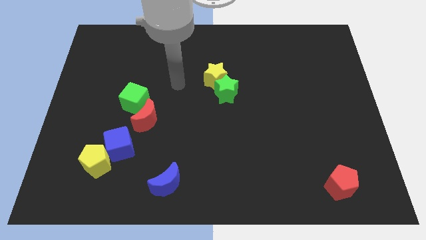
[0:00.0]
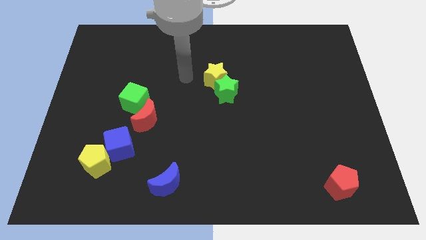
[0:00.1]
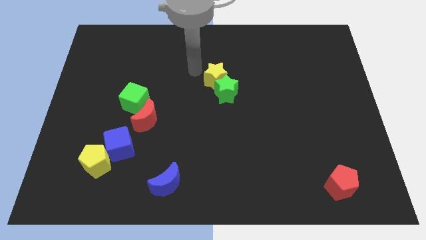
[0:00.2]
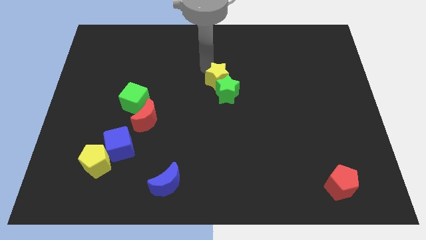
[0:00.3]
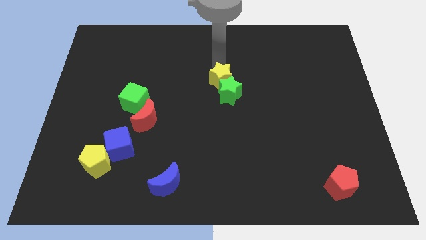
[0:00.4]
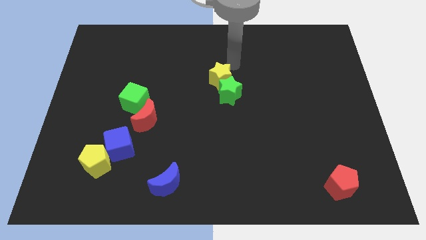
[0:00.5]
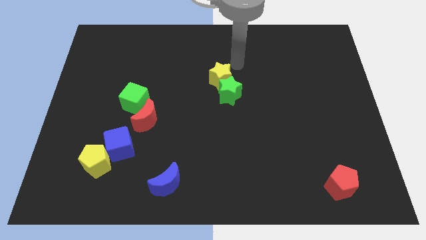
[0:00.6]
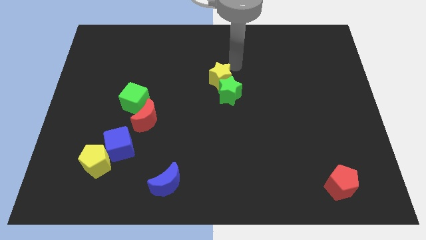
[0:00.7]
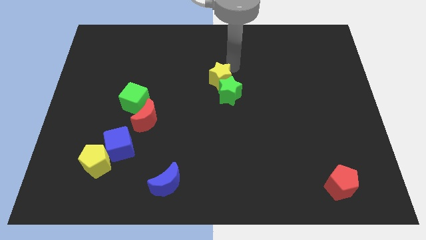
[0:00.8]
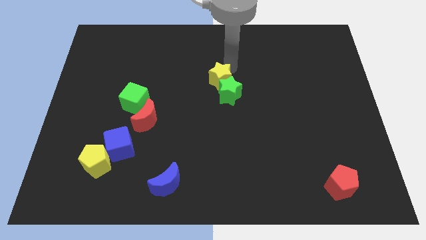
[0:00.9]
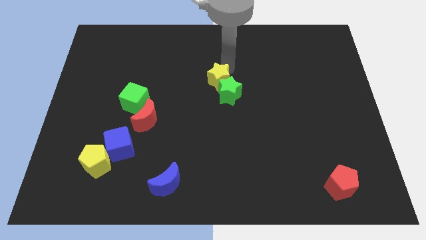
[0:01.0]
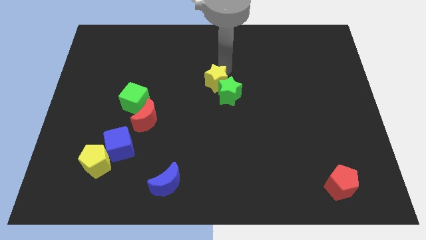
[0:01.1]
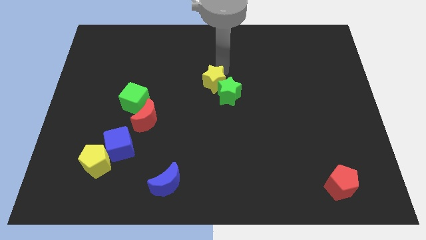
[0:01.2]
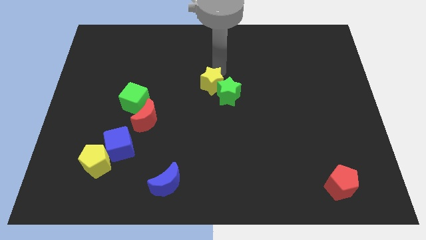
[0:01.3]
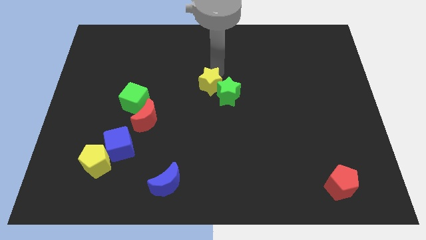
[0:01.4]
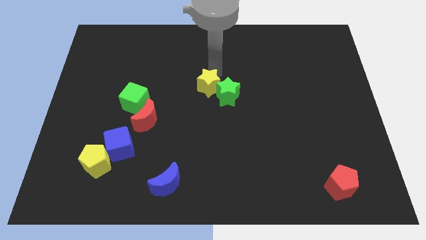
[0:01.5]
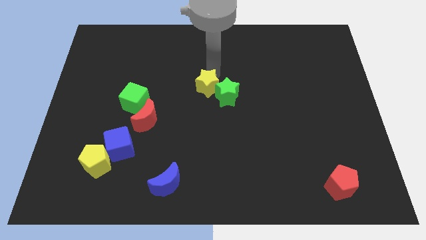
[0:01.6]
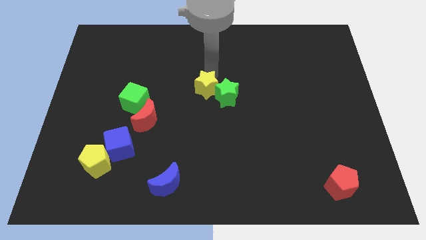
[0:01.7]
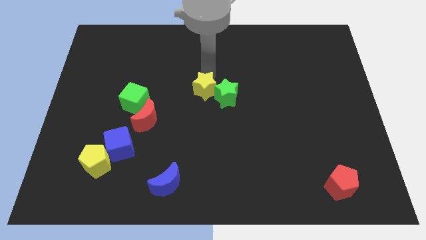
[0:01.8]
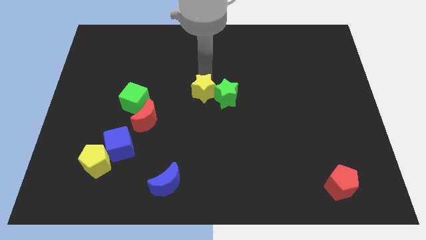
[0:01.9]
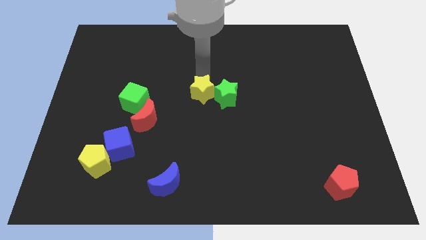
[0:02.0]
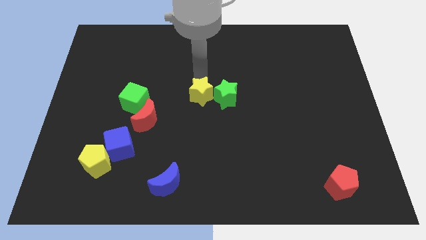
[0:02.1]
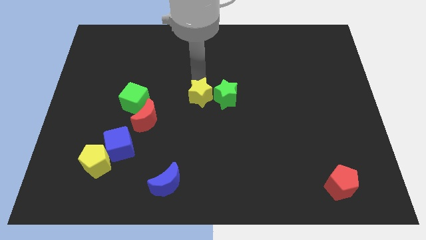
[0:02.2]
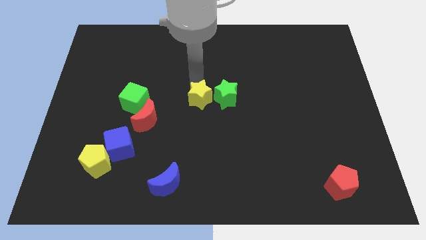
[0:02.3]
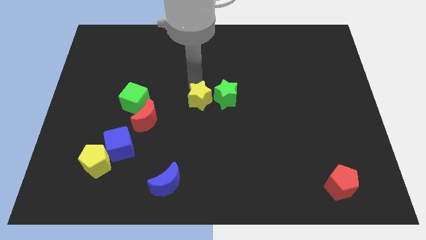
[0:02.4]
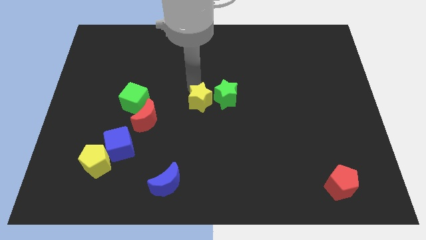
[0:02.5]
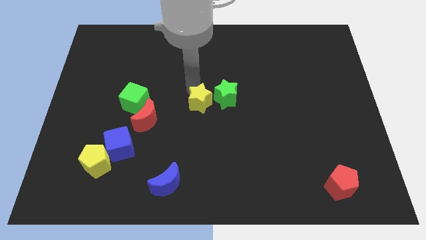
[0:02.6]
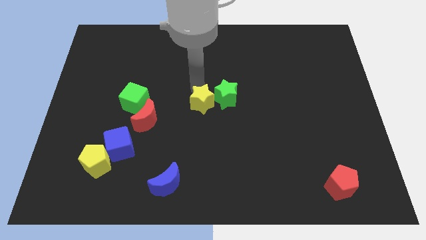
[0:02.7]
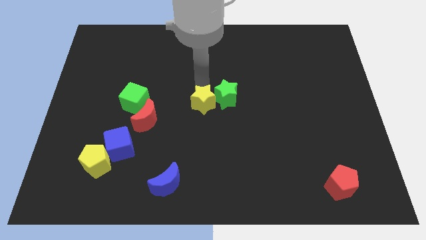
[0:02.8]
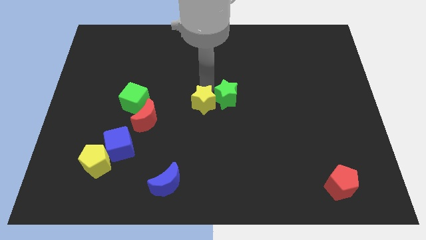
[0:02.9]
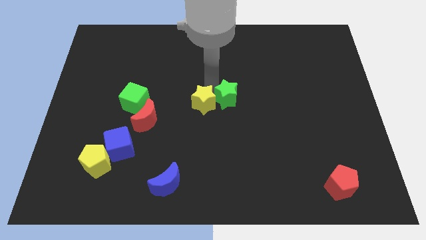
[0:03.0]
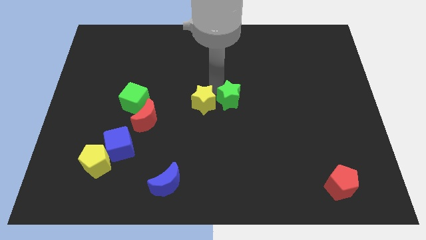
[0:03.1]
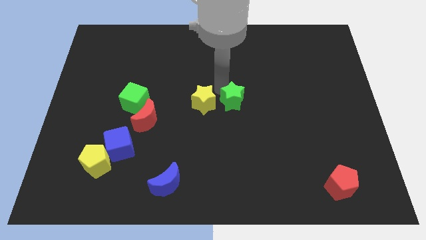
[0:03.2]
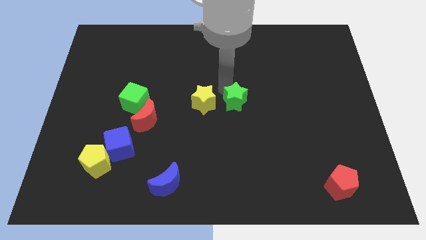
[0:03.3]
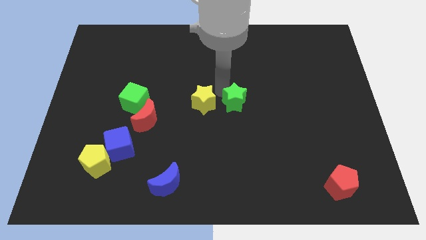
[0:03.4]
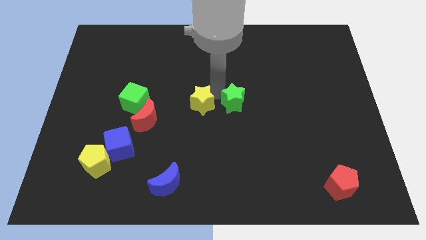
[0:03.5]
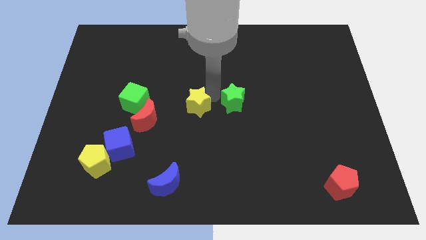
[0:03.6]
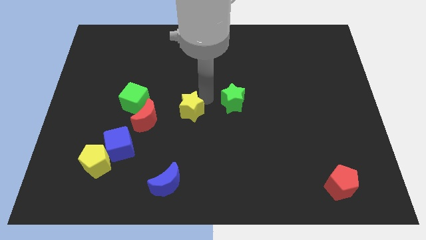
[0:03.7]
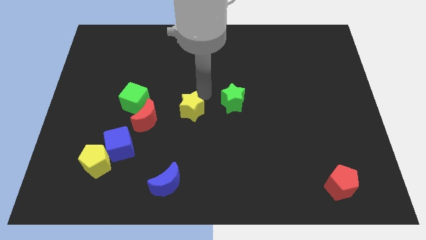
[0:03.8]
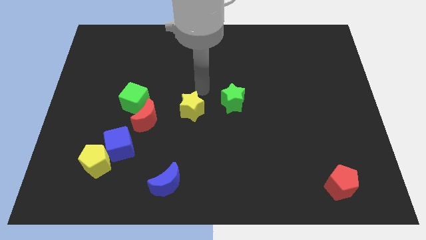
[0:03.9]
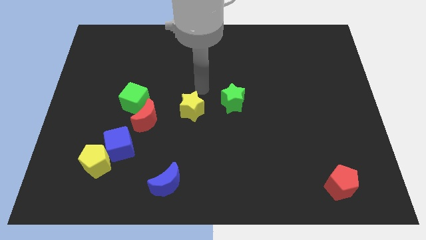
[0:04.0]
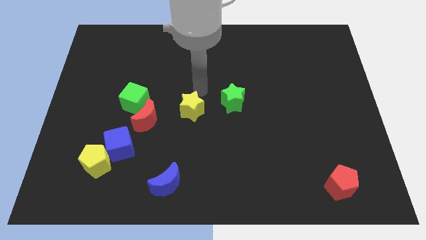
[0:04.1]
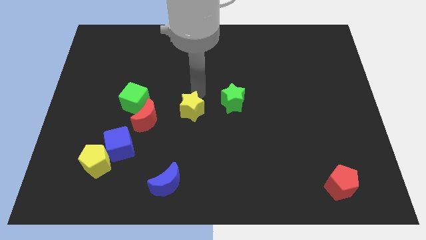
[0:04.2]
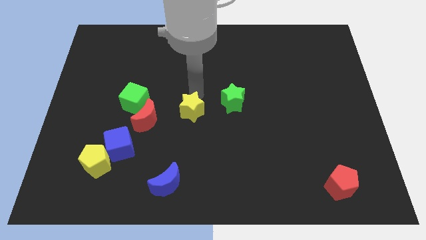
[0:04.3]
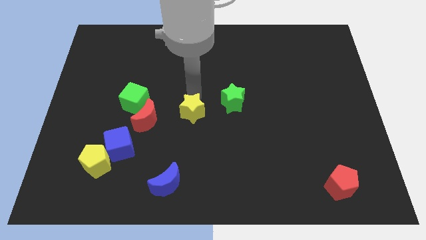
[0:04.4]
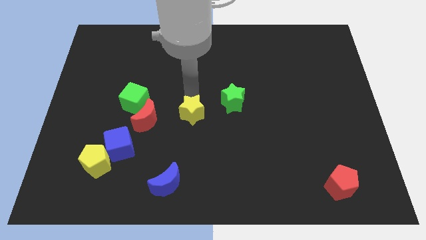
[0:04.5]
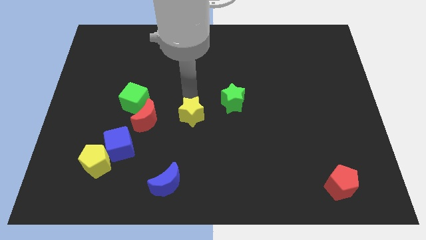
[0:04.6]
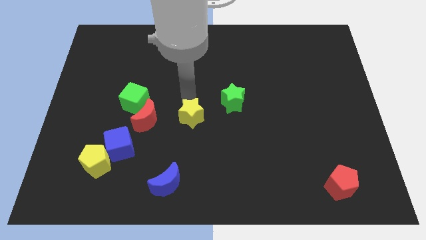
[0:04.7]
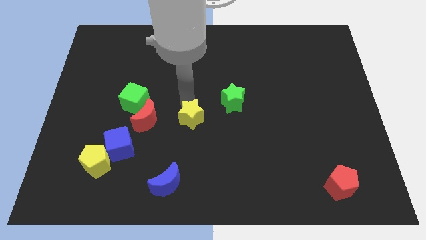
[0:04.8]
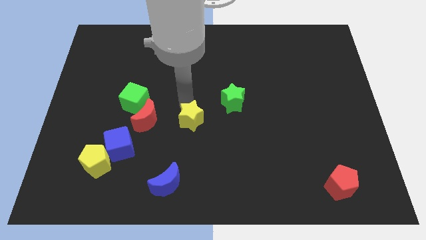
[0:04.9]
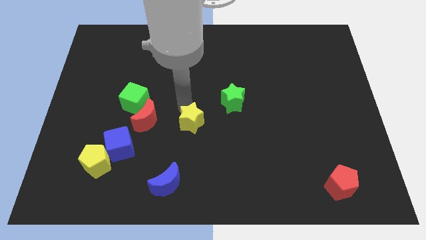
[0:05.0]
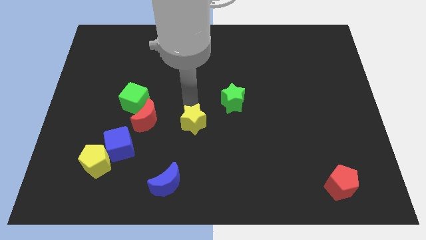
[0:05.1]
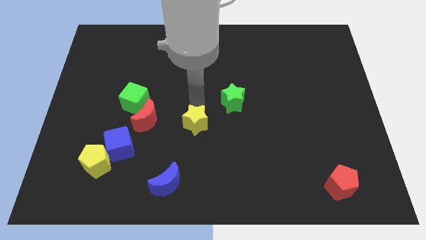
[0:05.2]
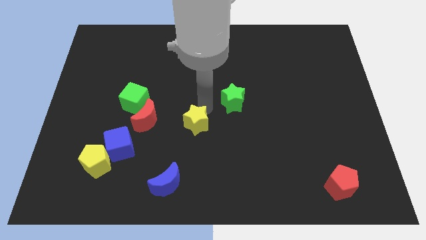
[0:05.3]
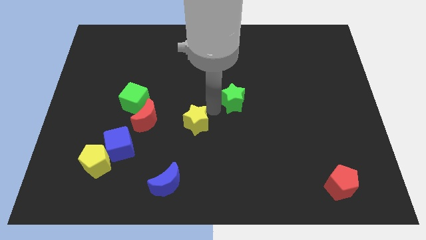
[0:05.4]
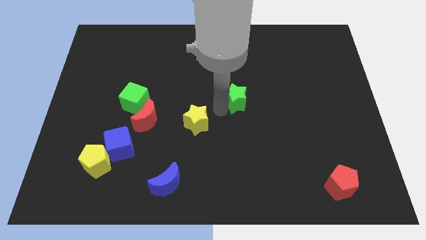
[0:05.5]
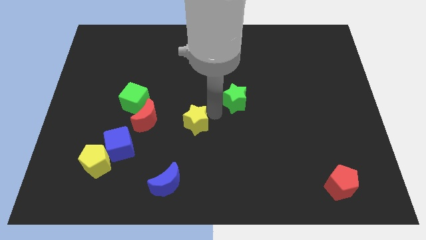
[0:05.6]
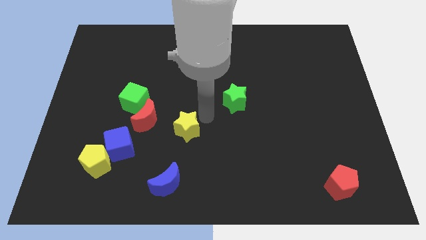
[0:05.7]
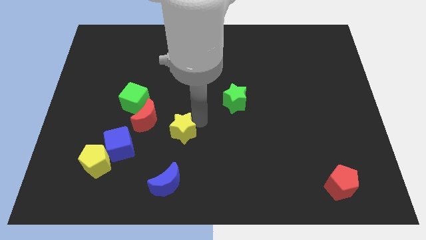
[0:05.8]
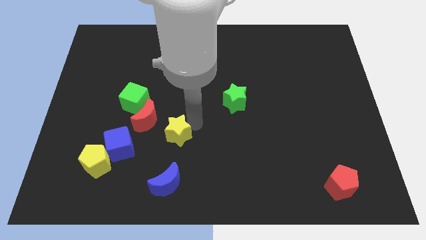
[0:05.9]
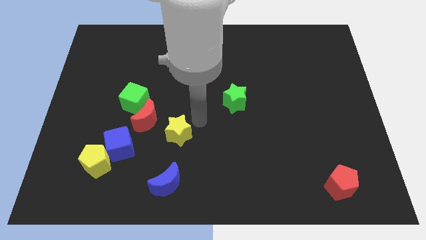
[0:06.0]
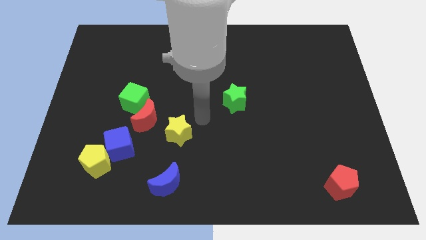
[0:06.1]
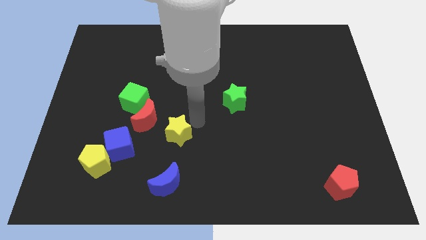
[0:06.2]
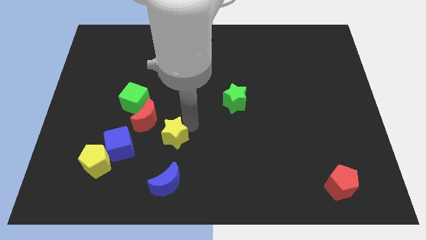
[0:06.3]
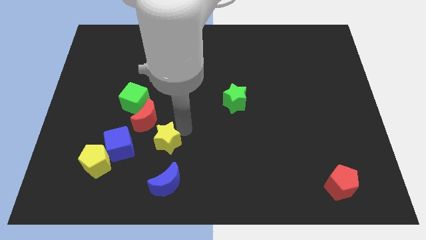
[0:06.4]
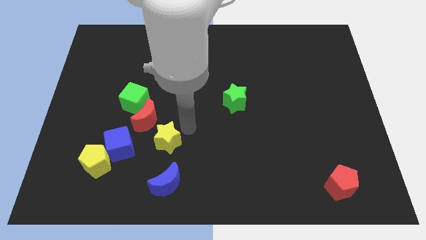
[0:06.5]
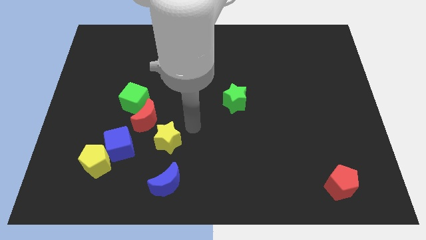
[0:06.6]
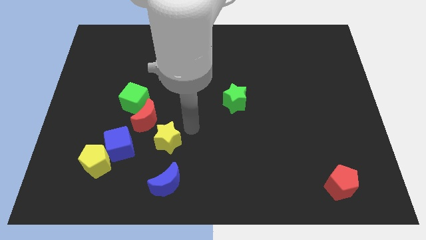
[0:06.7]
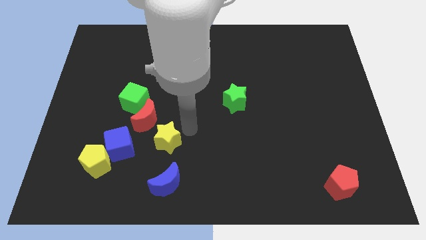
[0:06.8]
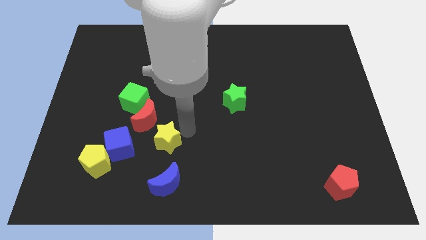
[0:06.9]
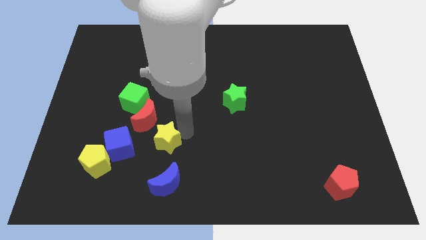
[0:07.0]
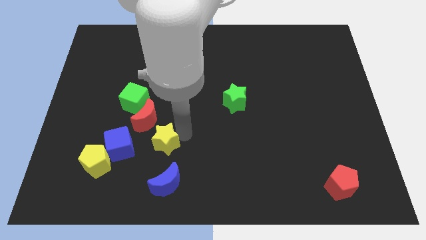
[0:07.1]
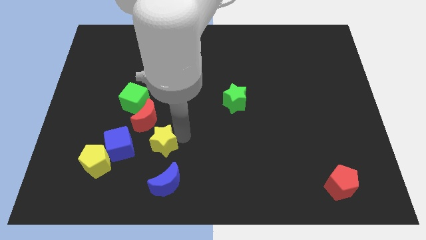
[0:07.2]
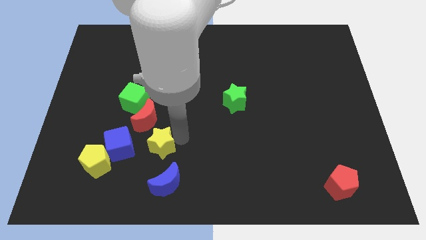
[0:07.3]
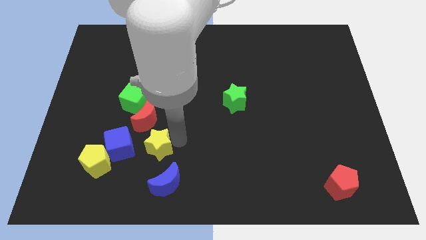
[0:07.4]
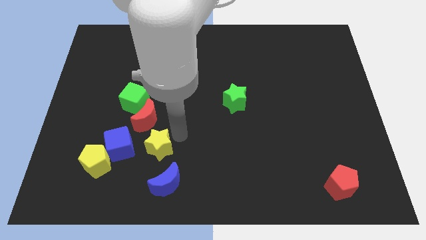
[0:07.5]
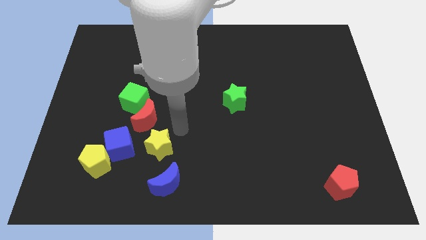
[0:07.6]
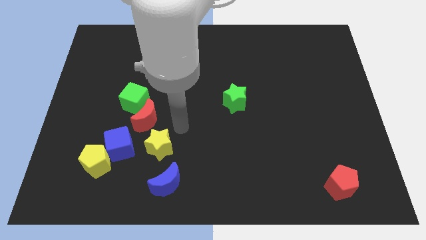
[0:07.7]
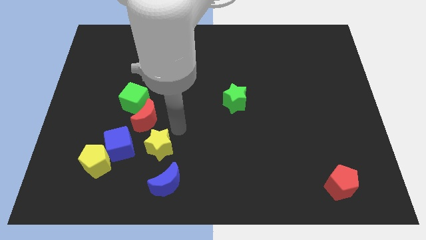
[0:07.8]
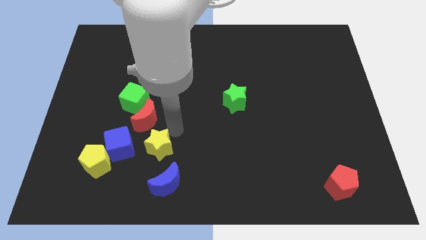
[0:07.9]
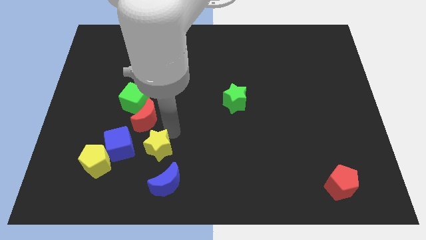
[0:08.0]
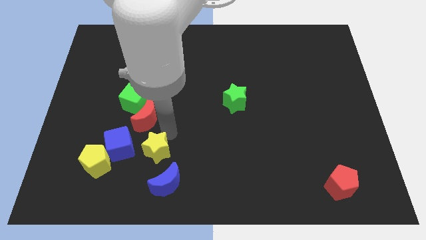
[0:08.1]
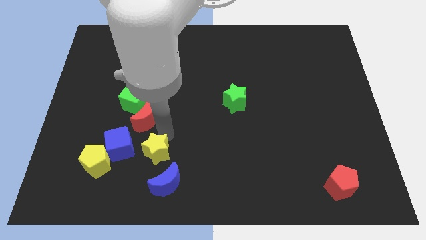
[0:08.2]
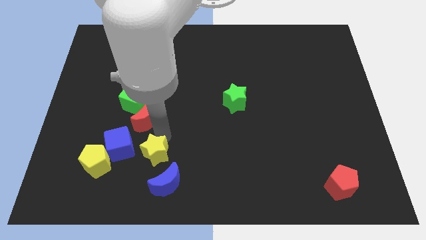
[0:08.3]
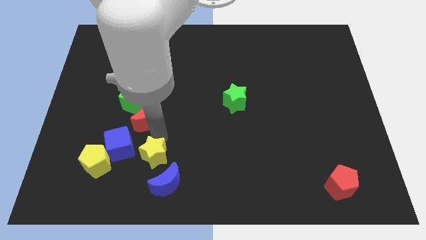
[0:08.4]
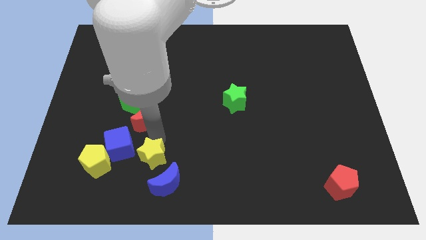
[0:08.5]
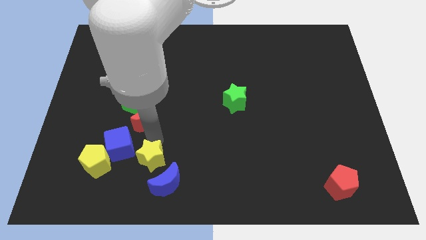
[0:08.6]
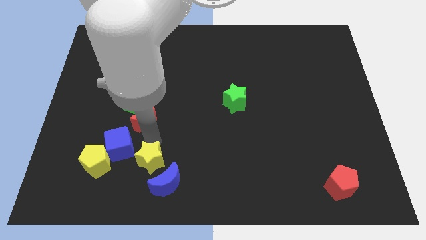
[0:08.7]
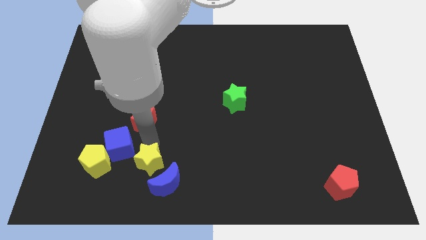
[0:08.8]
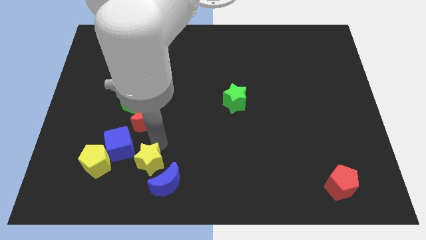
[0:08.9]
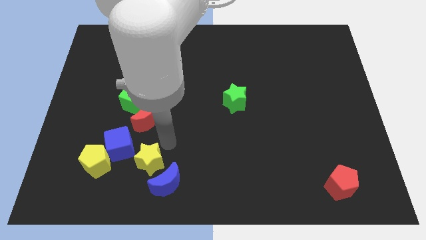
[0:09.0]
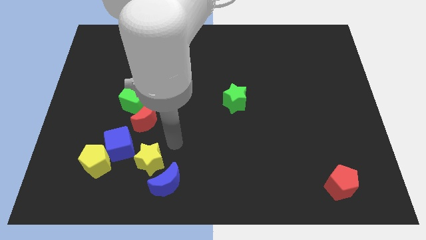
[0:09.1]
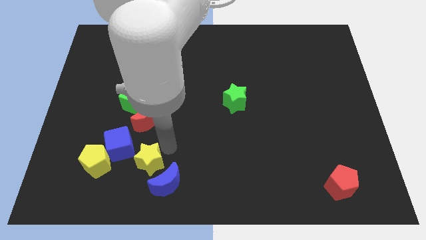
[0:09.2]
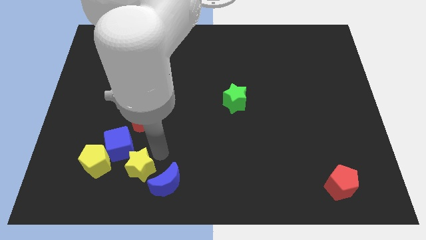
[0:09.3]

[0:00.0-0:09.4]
put the yellow star to the left side of the blue moon
